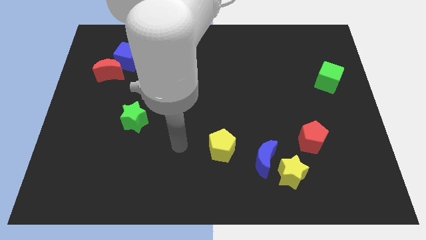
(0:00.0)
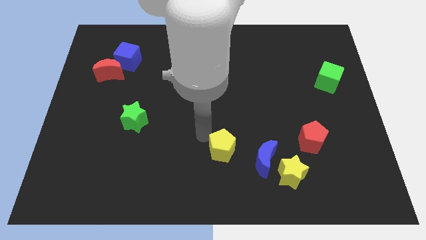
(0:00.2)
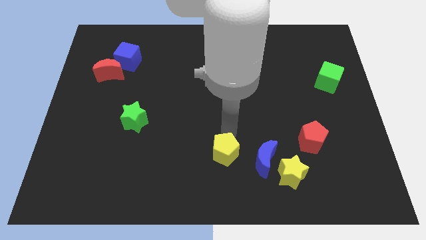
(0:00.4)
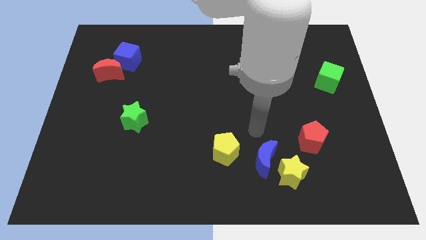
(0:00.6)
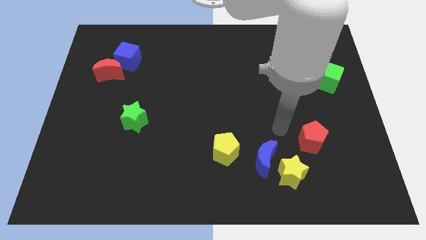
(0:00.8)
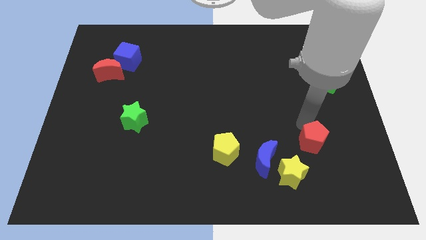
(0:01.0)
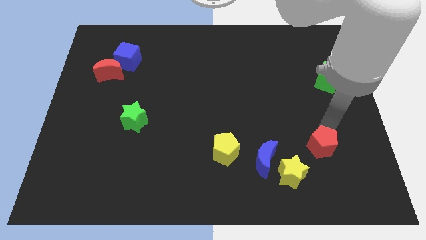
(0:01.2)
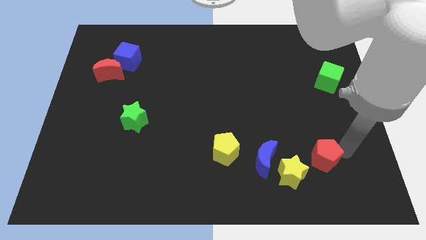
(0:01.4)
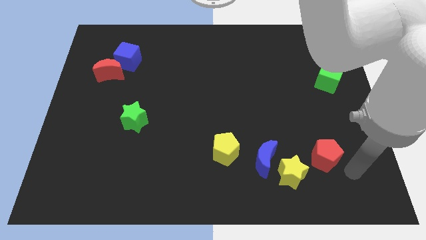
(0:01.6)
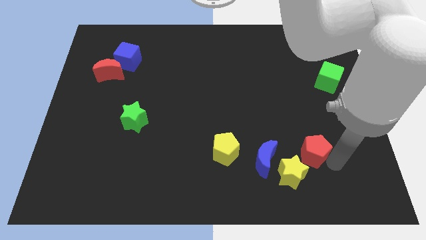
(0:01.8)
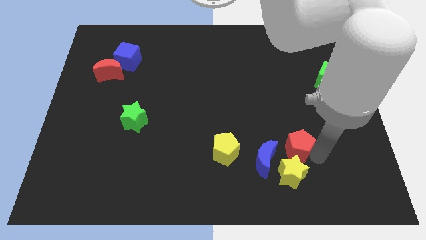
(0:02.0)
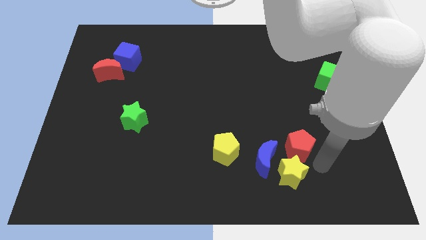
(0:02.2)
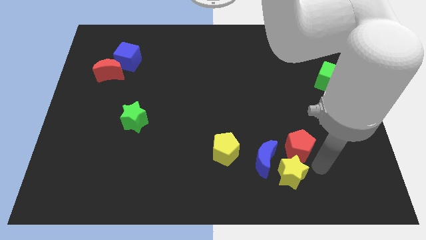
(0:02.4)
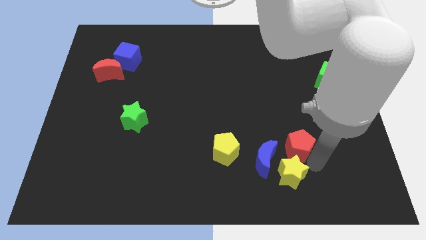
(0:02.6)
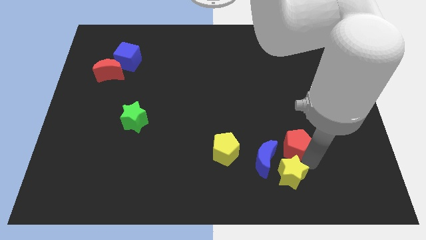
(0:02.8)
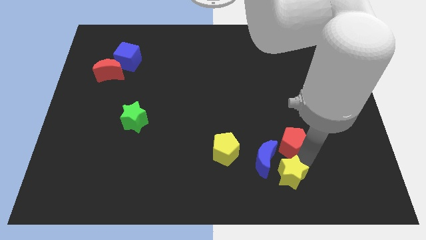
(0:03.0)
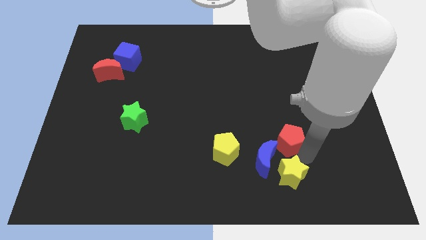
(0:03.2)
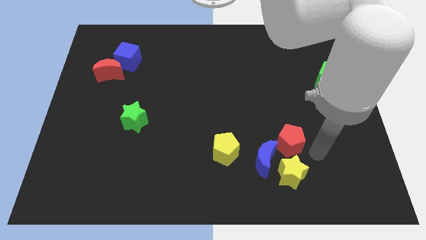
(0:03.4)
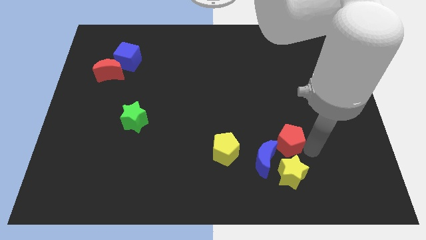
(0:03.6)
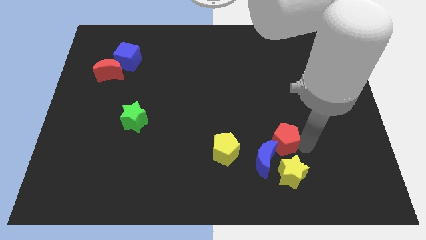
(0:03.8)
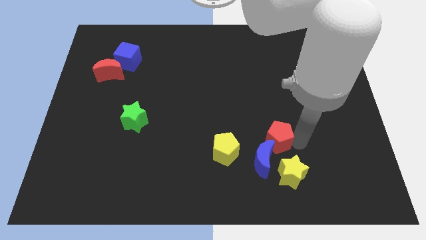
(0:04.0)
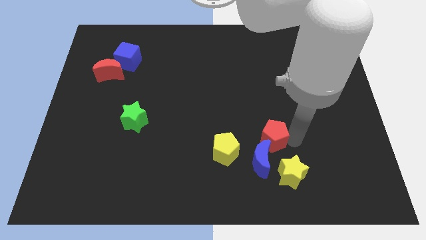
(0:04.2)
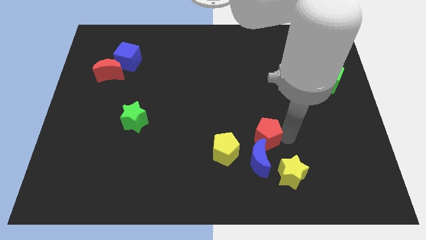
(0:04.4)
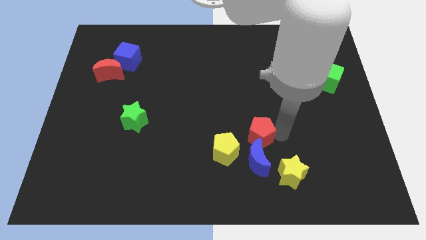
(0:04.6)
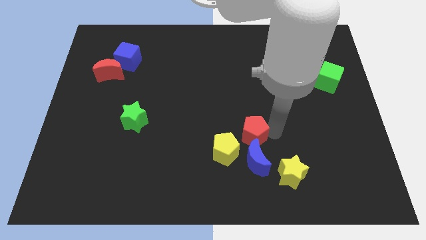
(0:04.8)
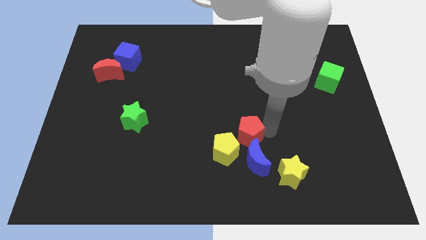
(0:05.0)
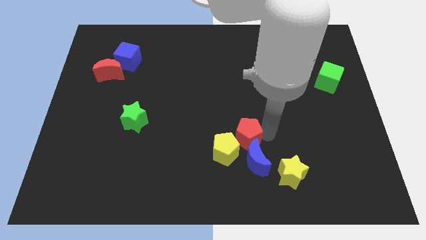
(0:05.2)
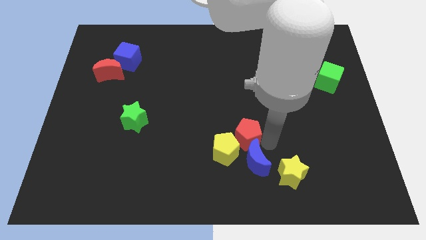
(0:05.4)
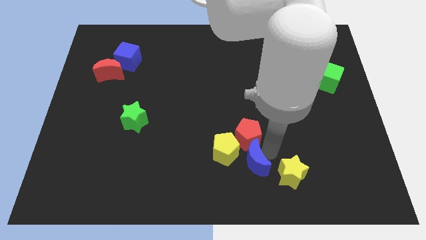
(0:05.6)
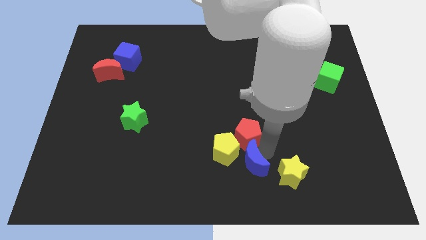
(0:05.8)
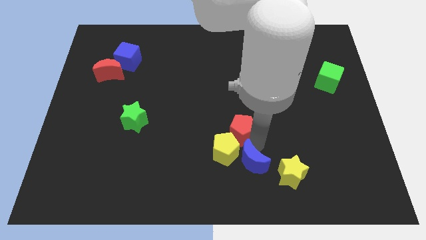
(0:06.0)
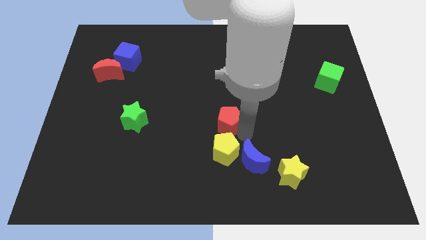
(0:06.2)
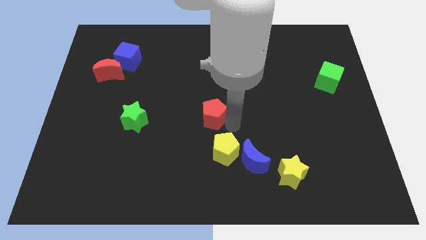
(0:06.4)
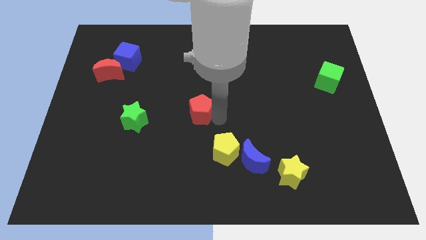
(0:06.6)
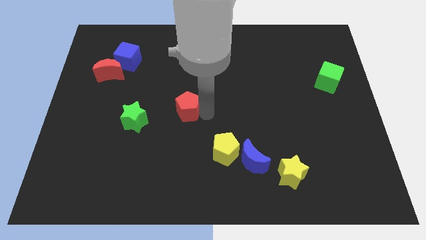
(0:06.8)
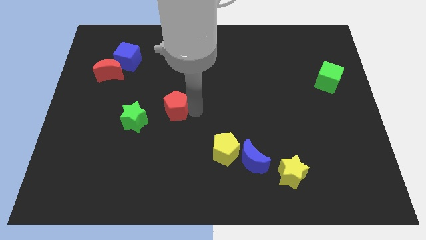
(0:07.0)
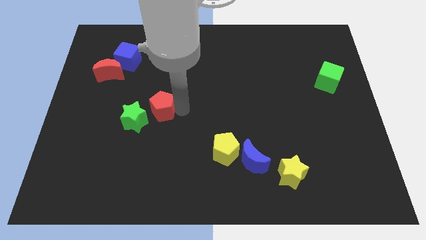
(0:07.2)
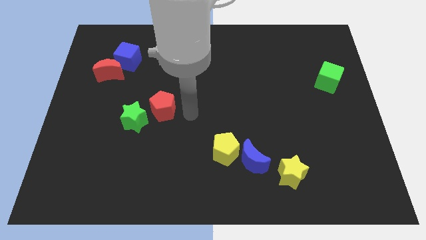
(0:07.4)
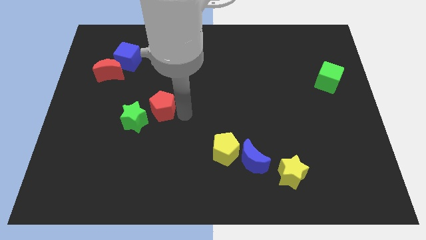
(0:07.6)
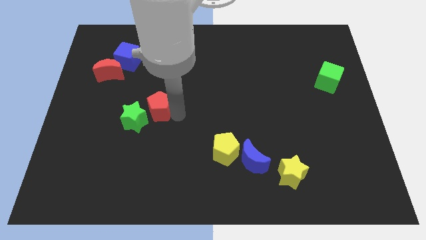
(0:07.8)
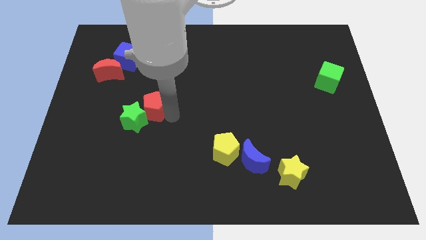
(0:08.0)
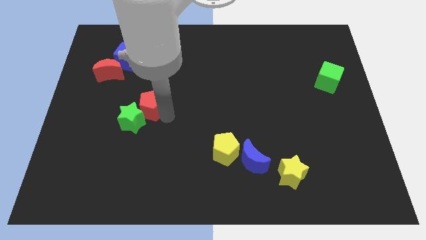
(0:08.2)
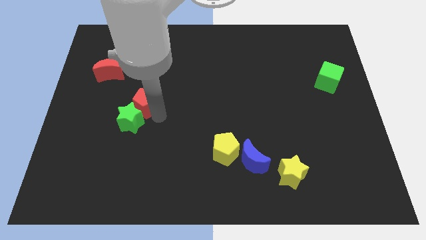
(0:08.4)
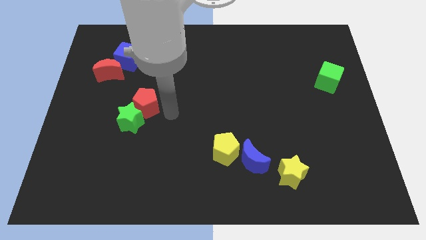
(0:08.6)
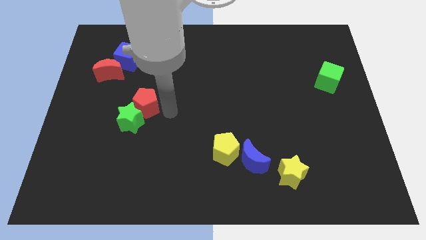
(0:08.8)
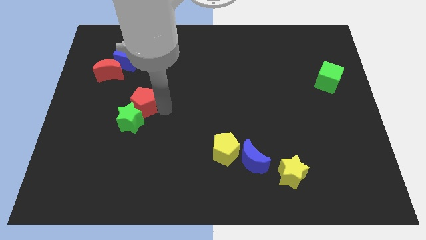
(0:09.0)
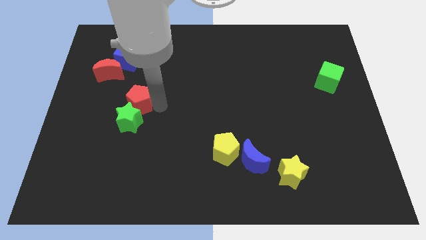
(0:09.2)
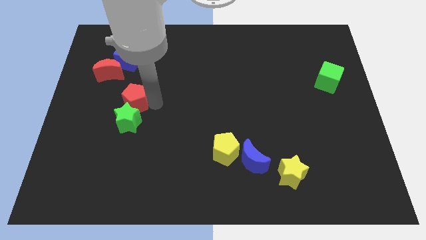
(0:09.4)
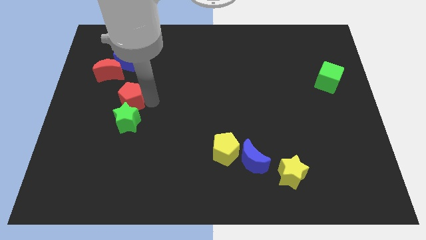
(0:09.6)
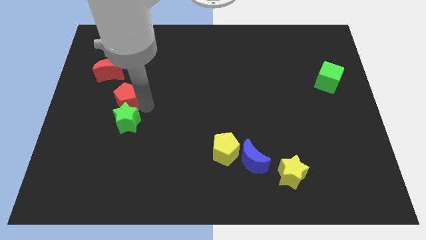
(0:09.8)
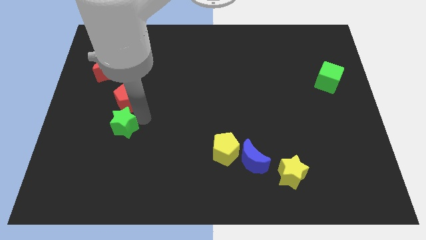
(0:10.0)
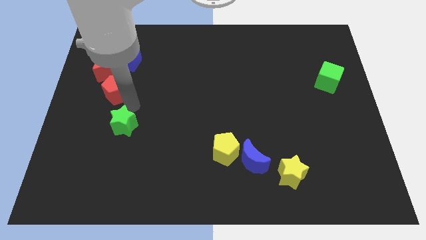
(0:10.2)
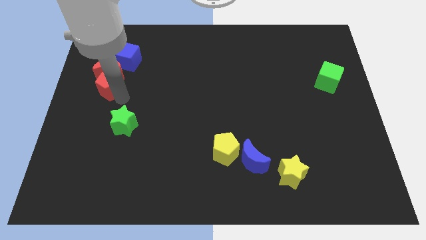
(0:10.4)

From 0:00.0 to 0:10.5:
push the red pentagon to the bottom left side of the blue cube

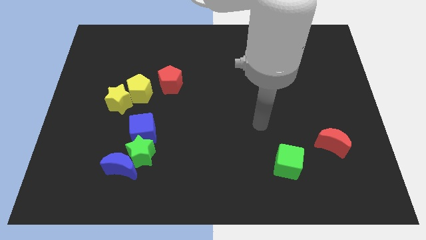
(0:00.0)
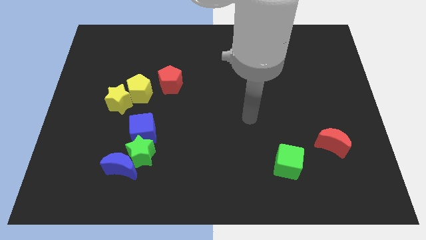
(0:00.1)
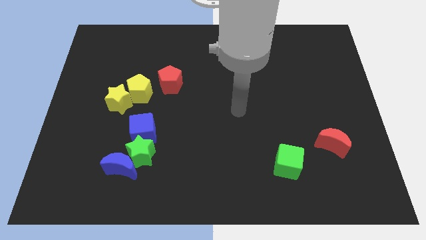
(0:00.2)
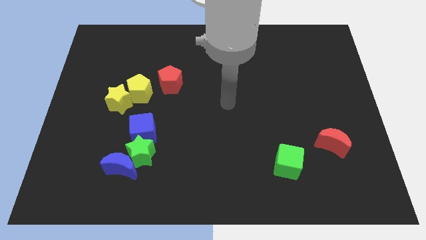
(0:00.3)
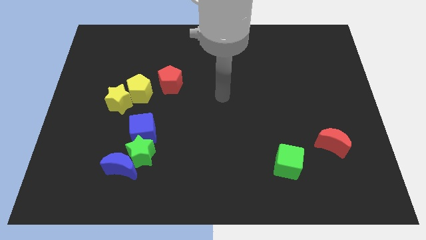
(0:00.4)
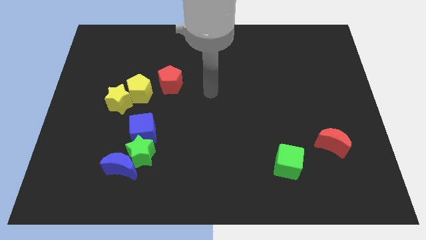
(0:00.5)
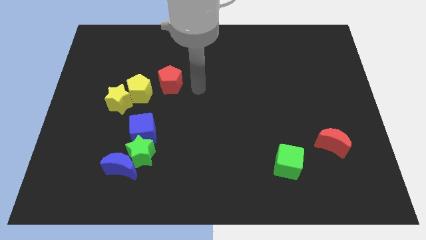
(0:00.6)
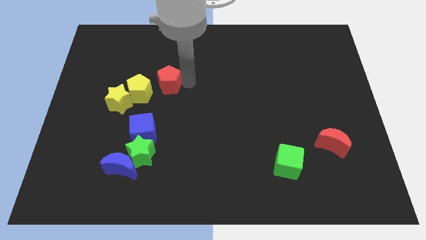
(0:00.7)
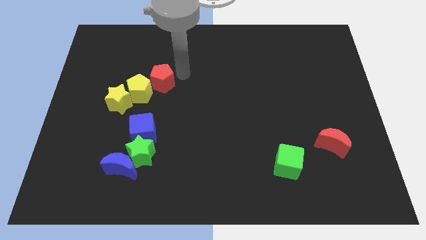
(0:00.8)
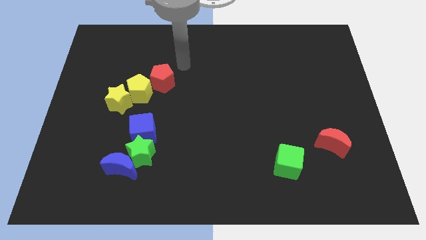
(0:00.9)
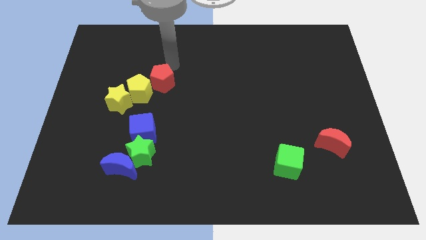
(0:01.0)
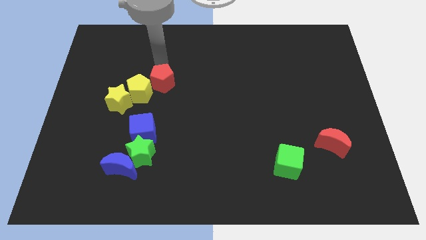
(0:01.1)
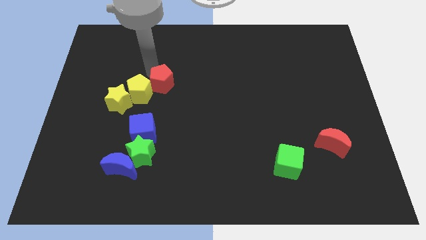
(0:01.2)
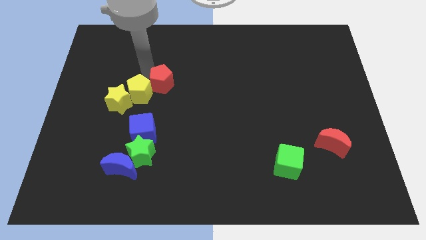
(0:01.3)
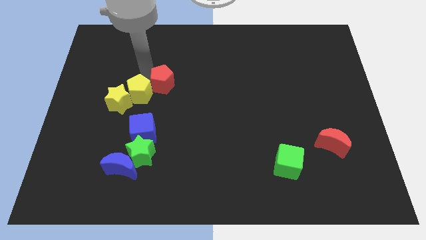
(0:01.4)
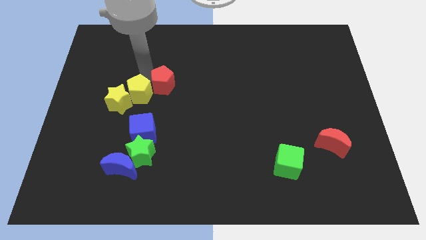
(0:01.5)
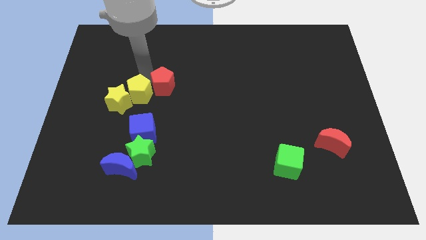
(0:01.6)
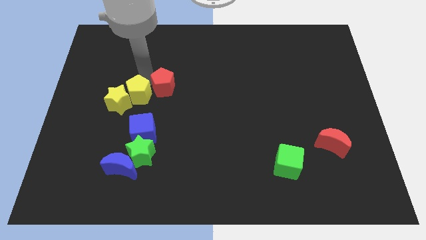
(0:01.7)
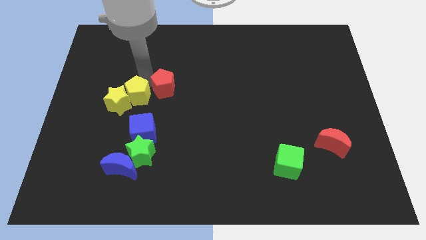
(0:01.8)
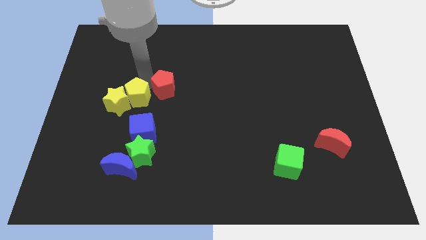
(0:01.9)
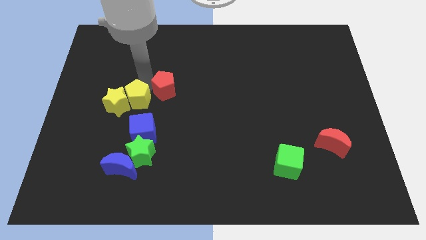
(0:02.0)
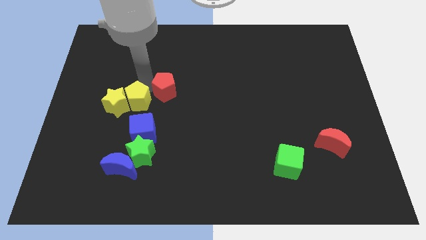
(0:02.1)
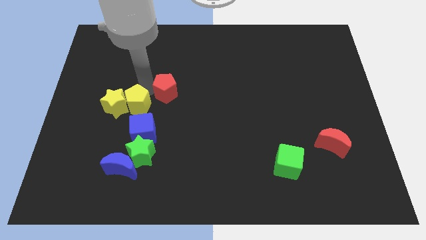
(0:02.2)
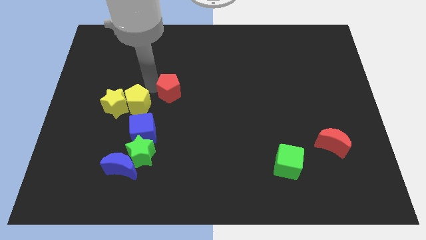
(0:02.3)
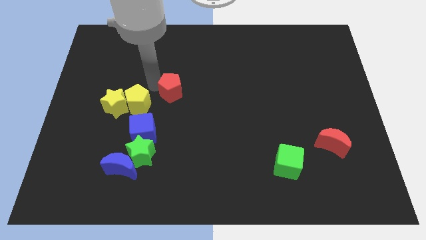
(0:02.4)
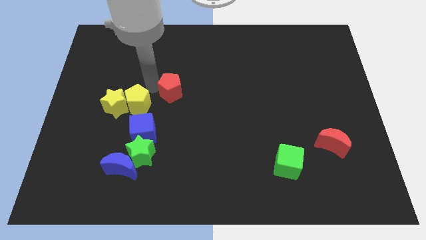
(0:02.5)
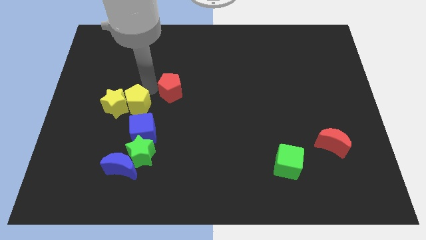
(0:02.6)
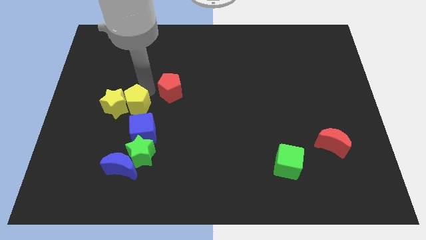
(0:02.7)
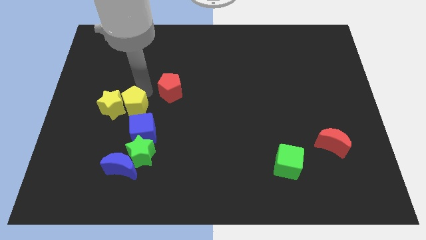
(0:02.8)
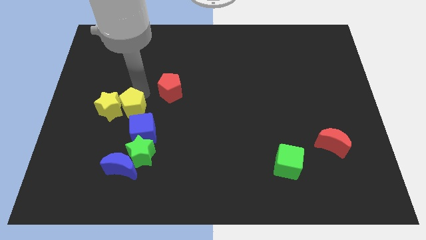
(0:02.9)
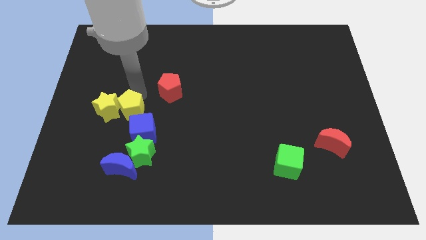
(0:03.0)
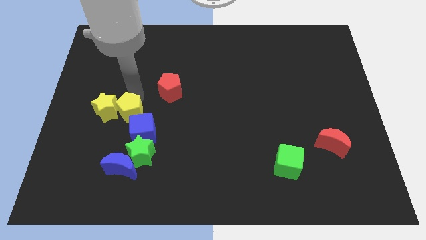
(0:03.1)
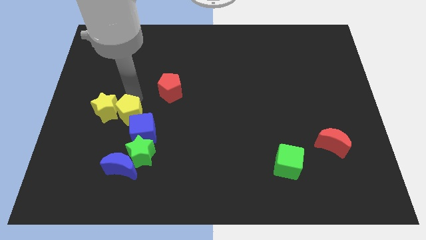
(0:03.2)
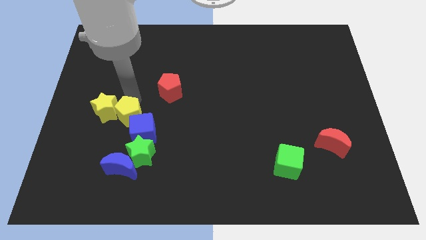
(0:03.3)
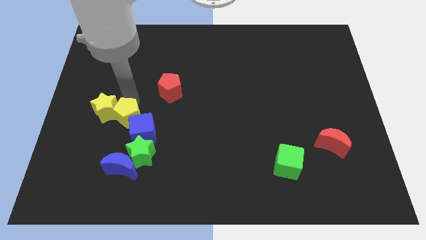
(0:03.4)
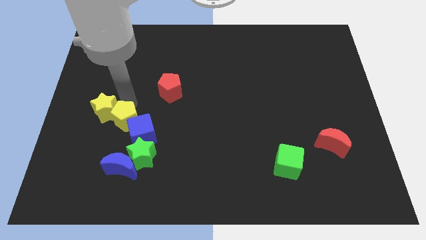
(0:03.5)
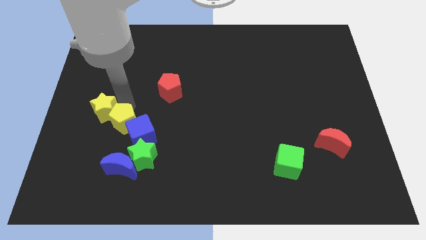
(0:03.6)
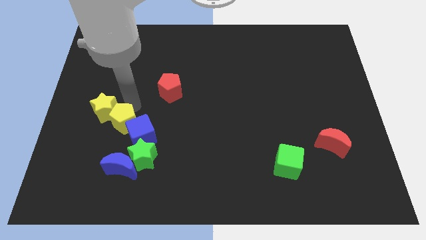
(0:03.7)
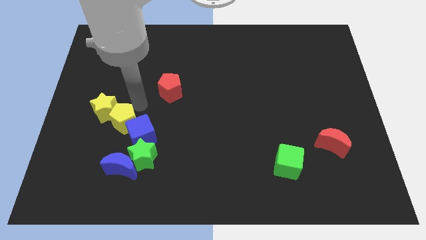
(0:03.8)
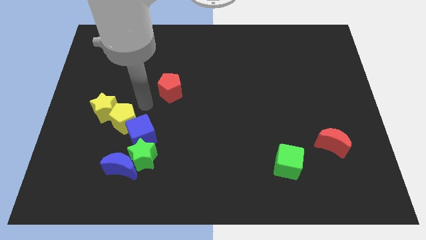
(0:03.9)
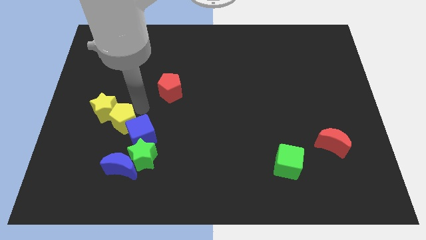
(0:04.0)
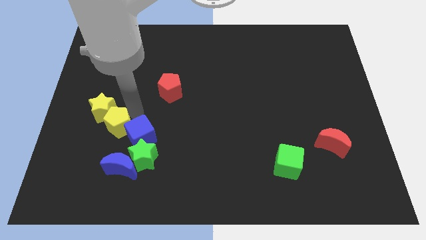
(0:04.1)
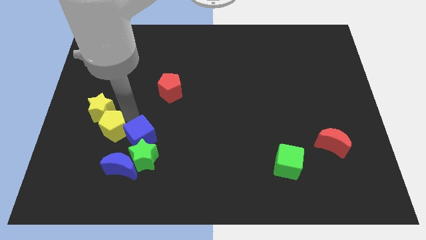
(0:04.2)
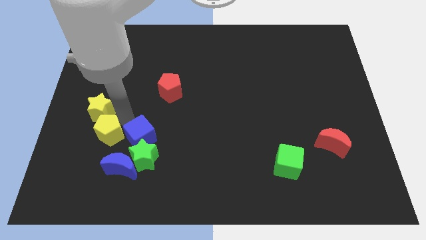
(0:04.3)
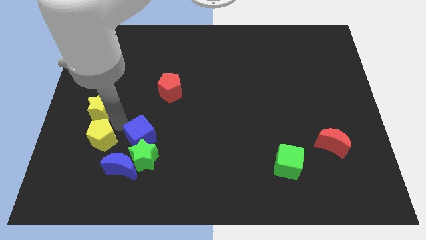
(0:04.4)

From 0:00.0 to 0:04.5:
put the yellow pentagon just left of the green star
